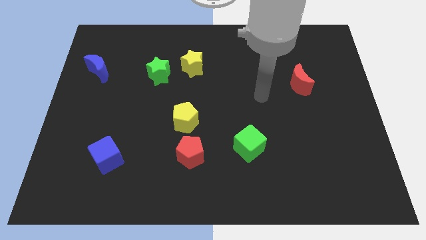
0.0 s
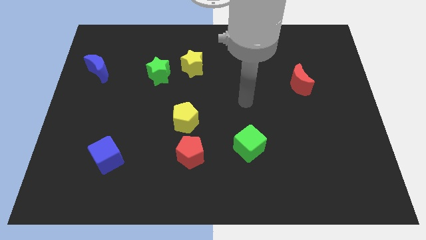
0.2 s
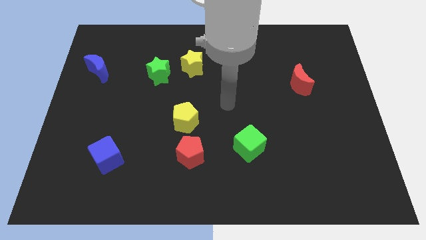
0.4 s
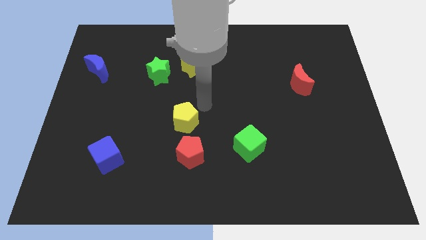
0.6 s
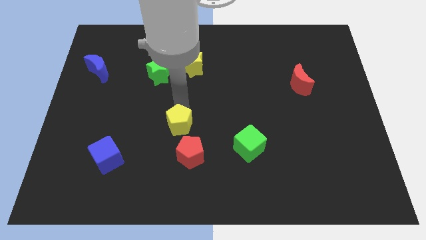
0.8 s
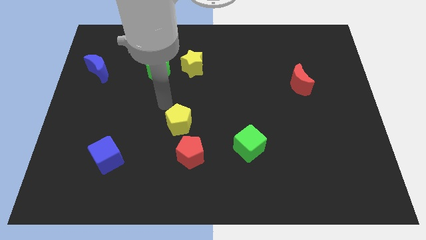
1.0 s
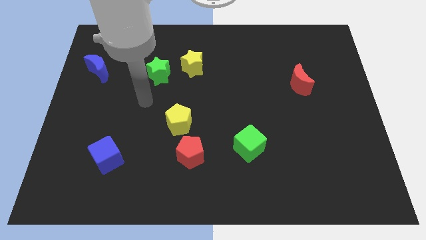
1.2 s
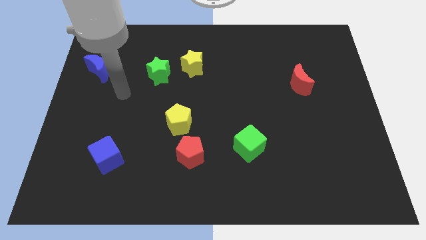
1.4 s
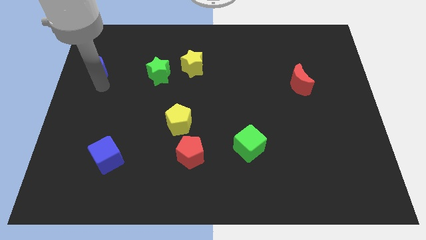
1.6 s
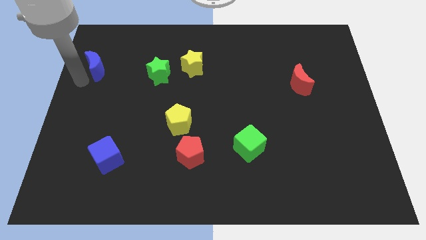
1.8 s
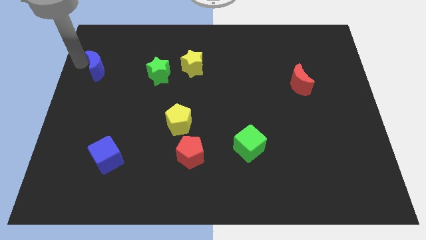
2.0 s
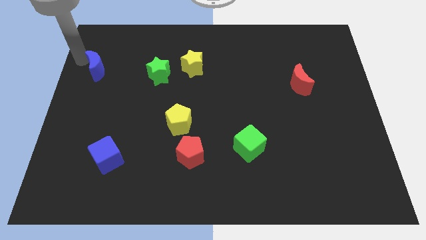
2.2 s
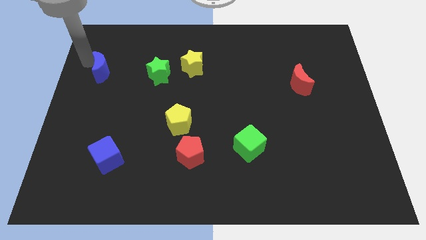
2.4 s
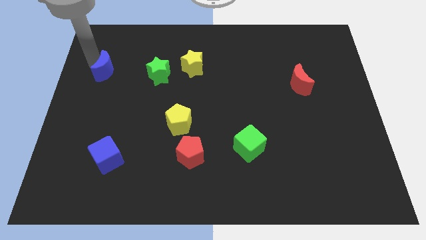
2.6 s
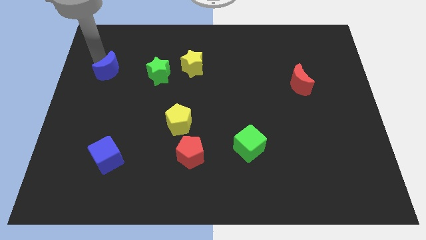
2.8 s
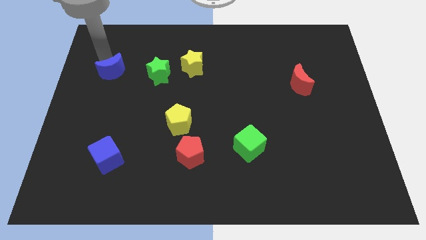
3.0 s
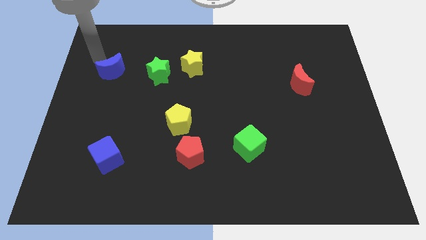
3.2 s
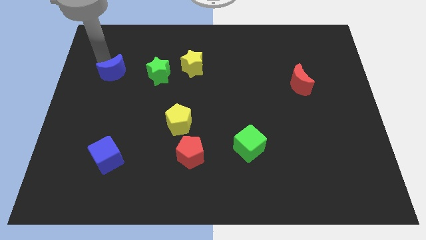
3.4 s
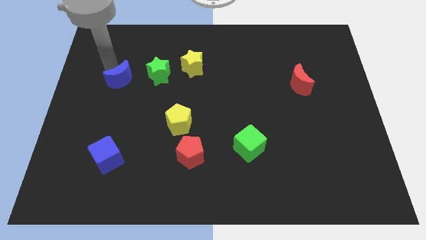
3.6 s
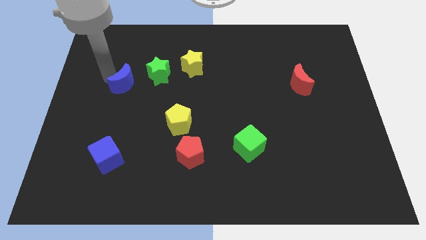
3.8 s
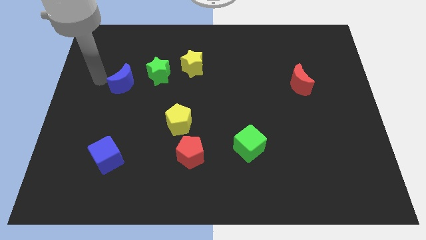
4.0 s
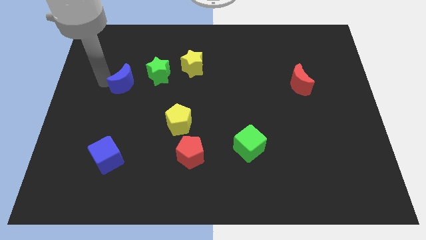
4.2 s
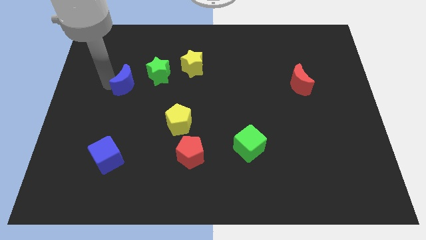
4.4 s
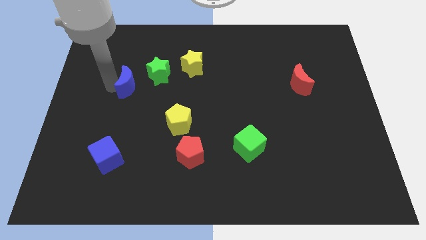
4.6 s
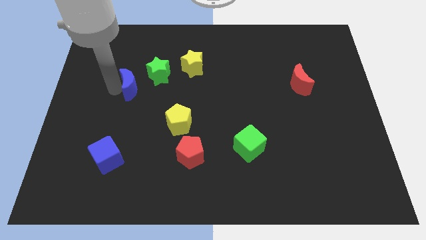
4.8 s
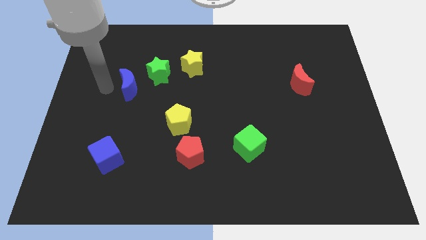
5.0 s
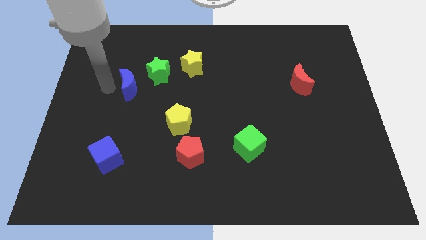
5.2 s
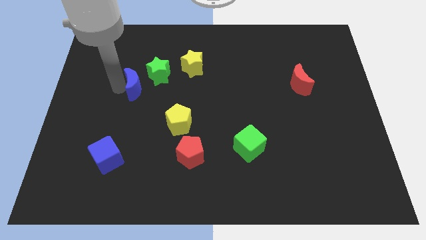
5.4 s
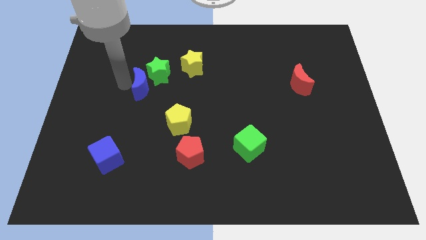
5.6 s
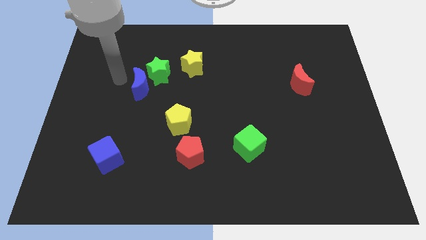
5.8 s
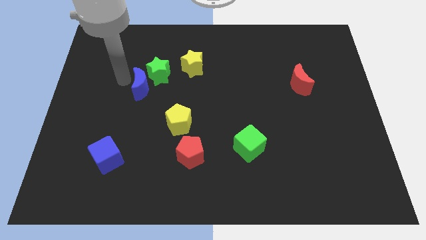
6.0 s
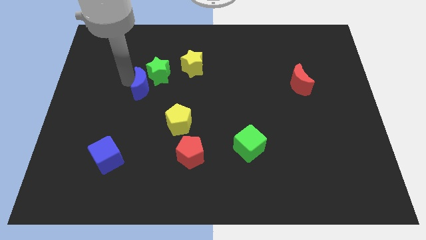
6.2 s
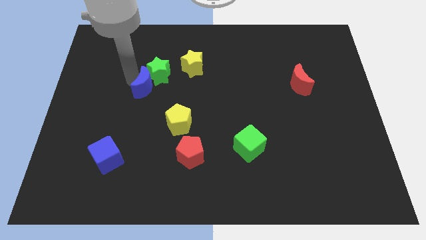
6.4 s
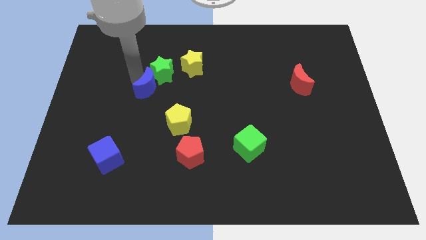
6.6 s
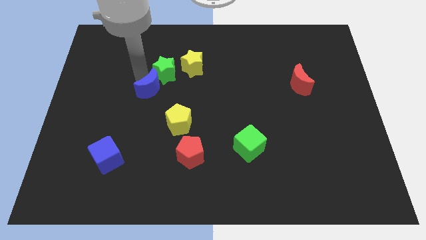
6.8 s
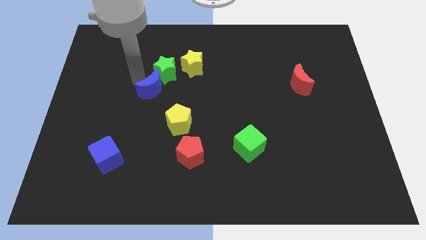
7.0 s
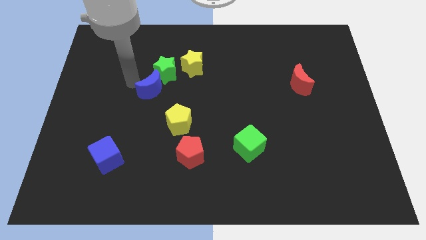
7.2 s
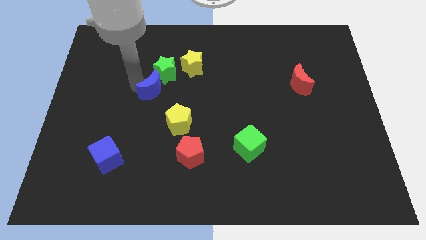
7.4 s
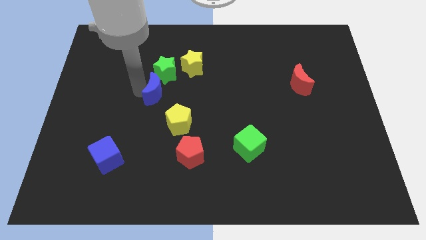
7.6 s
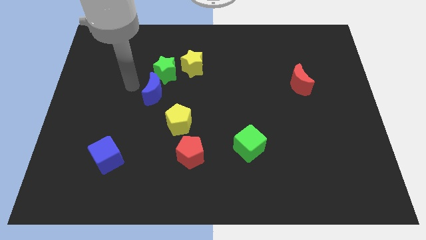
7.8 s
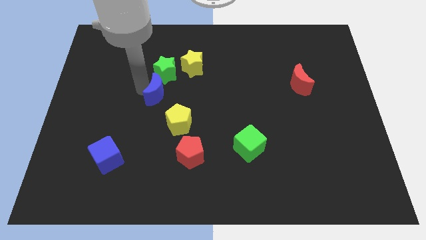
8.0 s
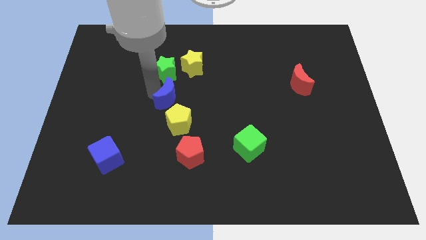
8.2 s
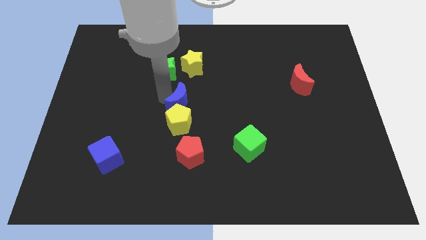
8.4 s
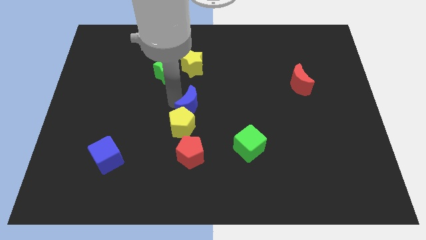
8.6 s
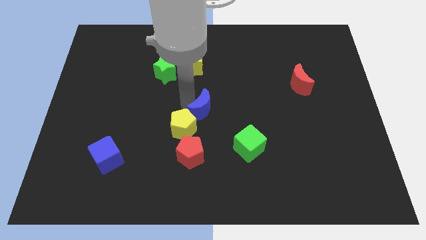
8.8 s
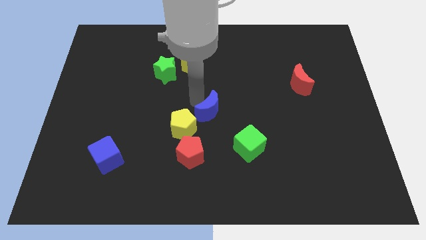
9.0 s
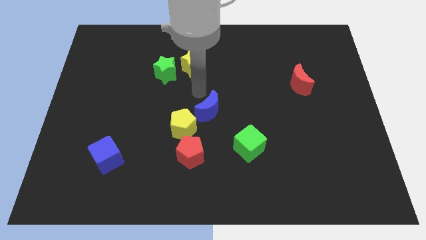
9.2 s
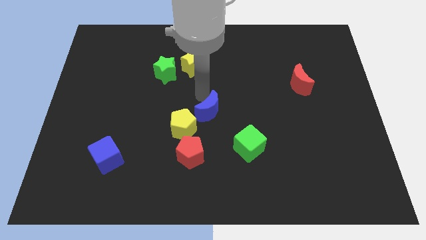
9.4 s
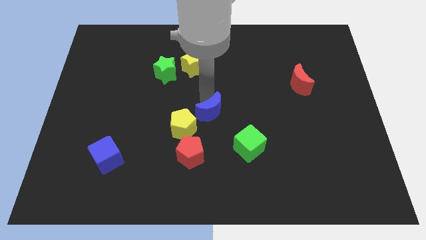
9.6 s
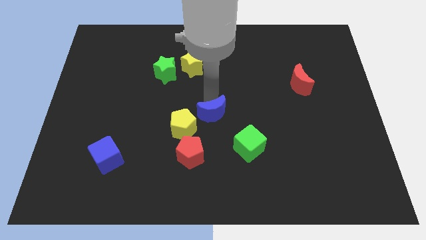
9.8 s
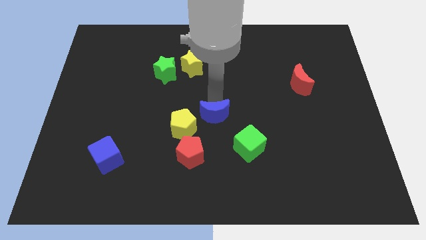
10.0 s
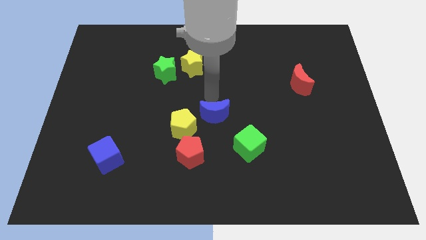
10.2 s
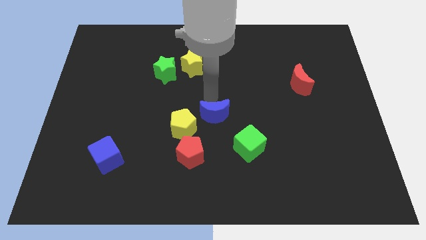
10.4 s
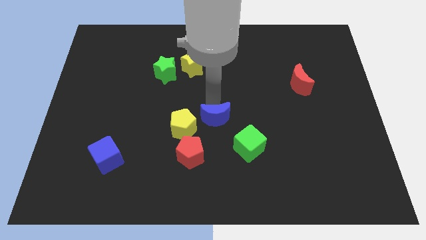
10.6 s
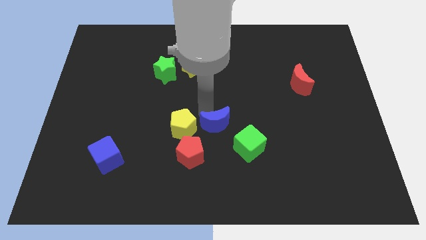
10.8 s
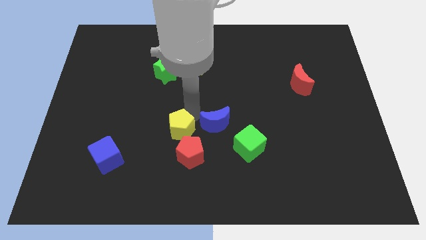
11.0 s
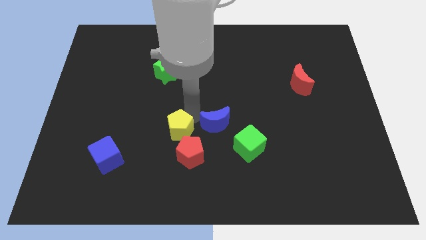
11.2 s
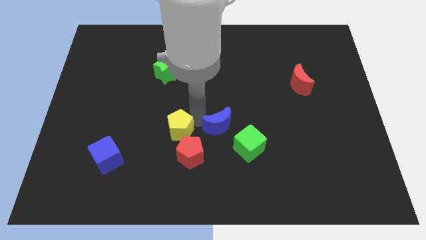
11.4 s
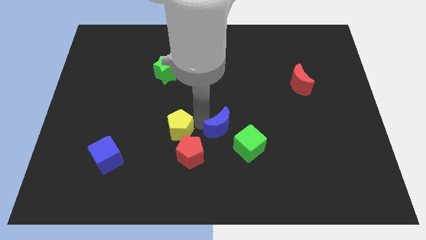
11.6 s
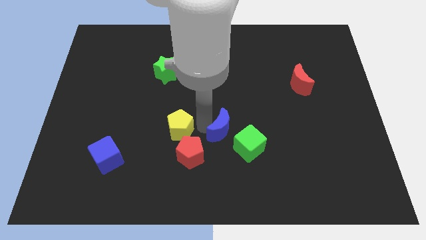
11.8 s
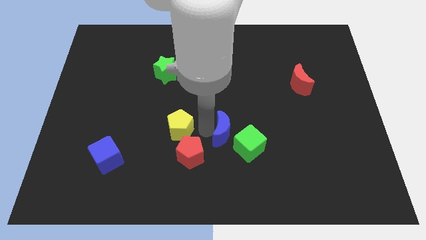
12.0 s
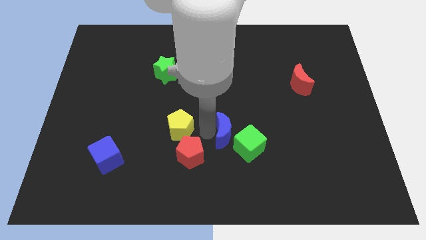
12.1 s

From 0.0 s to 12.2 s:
slide the blue moon close to the green cube

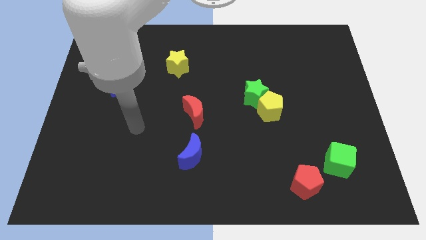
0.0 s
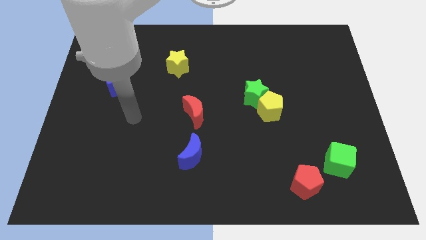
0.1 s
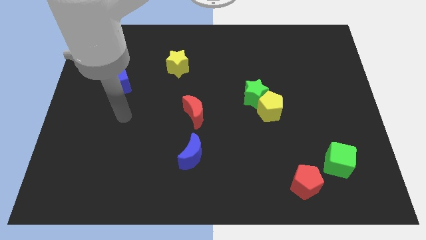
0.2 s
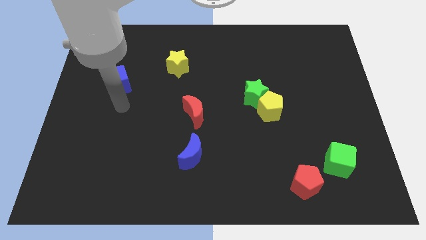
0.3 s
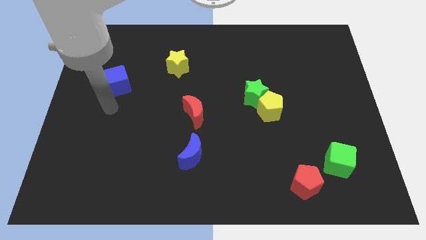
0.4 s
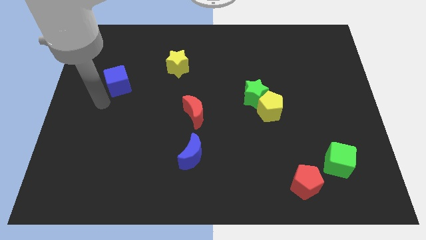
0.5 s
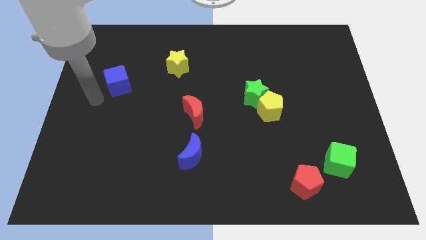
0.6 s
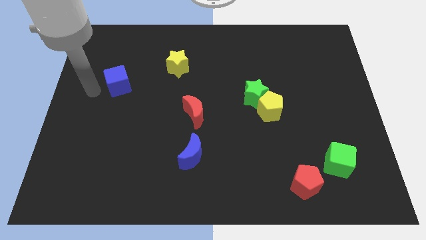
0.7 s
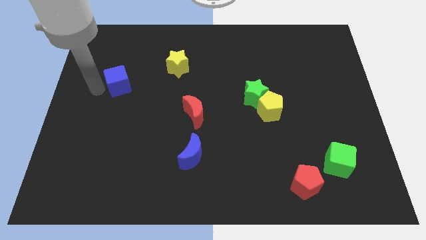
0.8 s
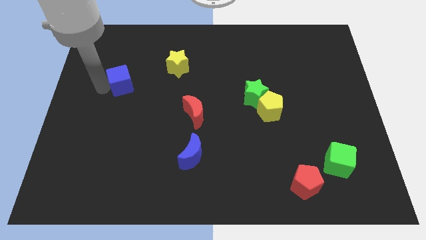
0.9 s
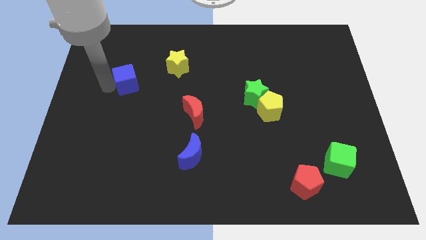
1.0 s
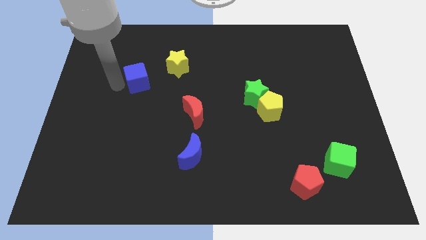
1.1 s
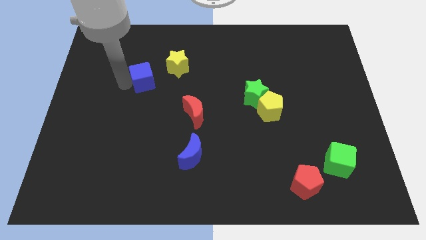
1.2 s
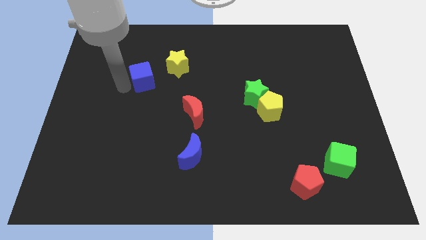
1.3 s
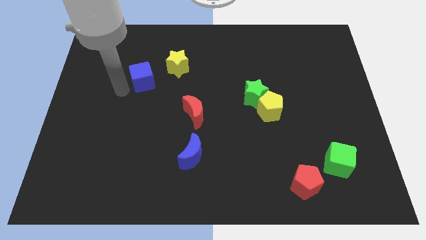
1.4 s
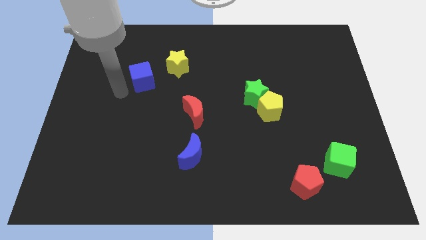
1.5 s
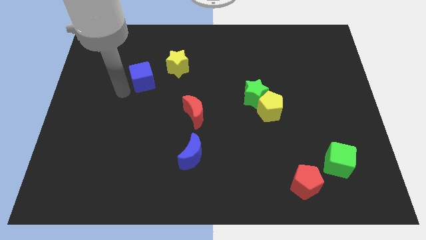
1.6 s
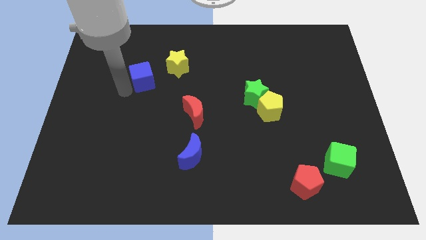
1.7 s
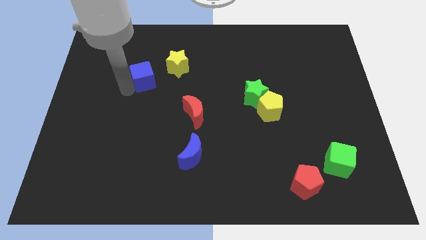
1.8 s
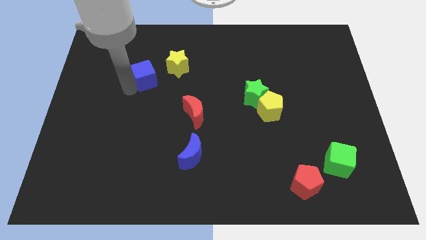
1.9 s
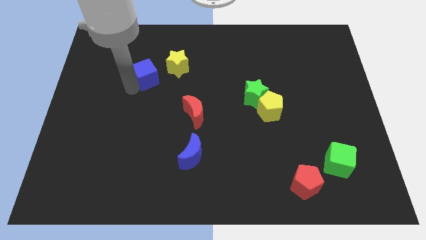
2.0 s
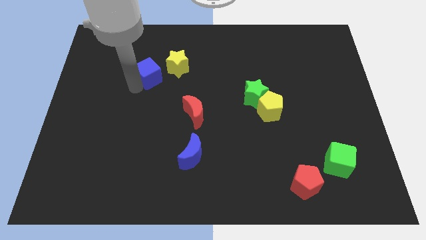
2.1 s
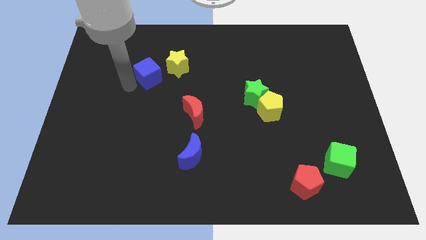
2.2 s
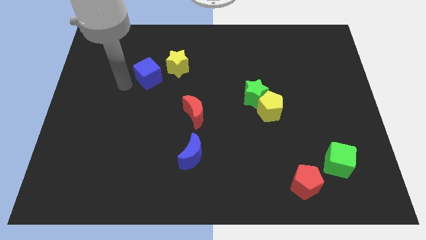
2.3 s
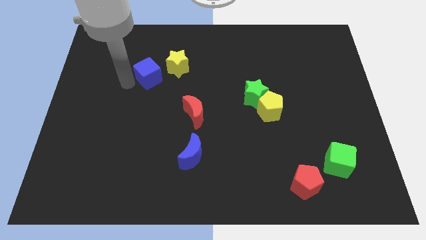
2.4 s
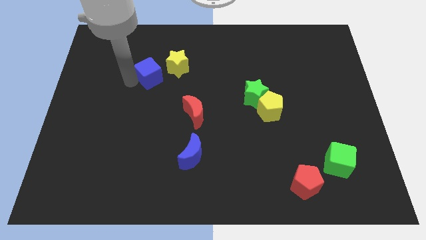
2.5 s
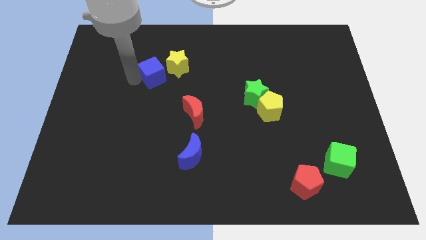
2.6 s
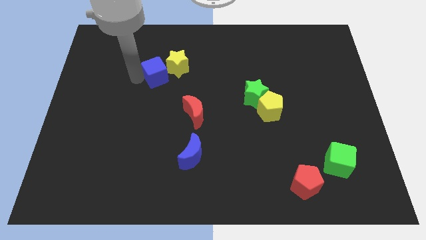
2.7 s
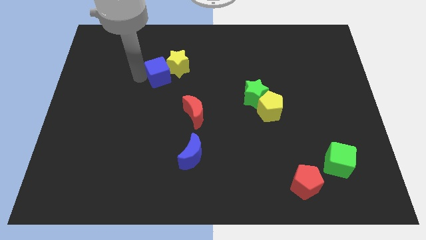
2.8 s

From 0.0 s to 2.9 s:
push the blue cube to the yellow star
